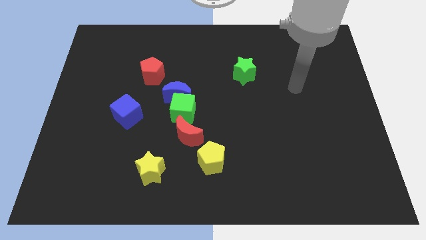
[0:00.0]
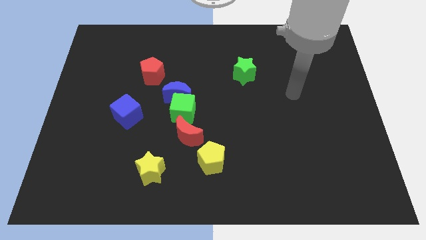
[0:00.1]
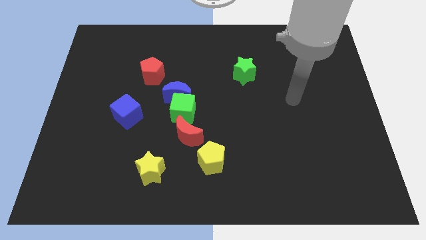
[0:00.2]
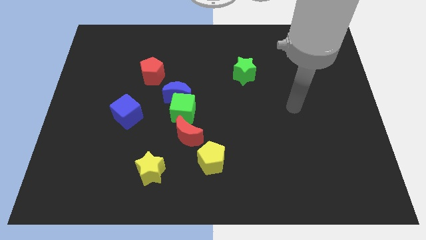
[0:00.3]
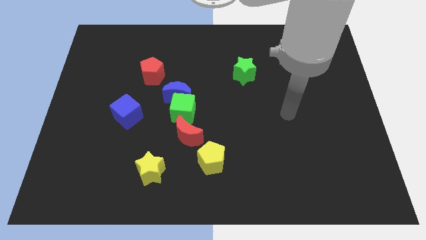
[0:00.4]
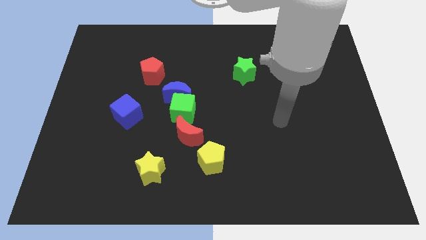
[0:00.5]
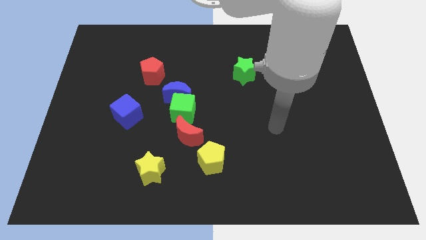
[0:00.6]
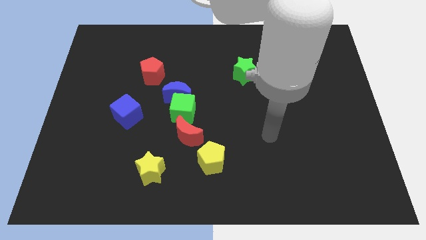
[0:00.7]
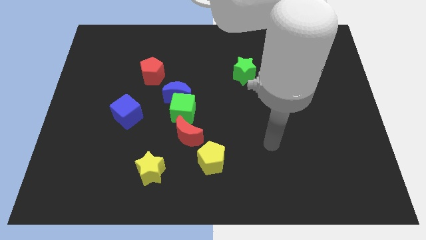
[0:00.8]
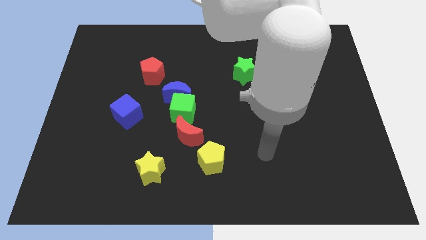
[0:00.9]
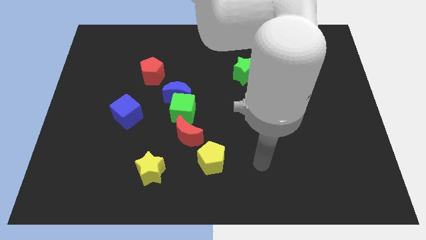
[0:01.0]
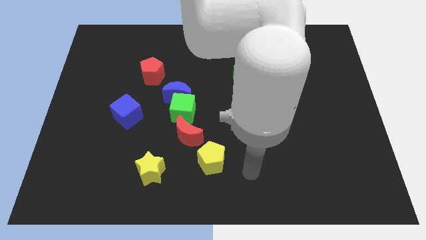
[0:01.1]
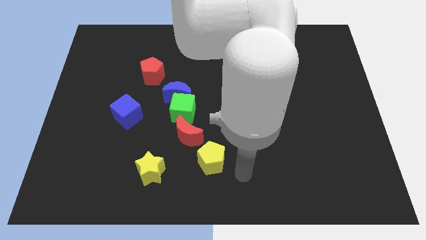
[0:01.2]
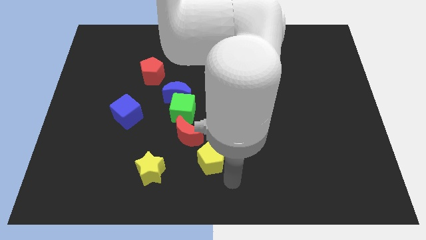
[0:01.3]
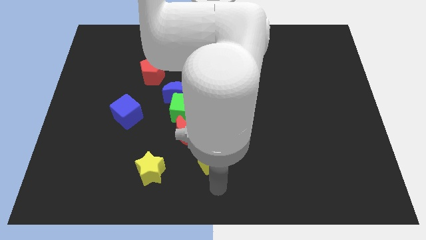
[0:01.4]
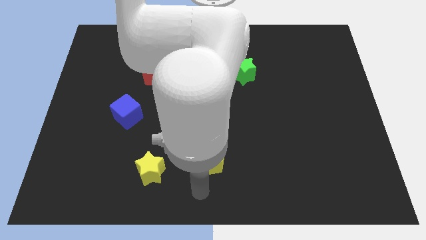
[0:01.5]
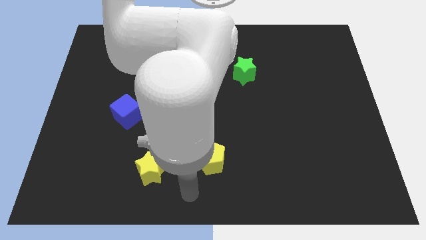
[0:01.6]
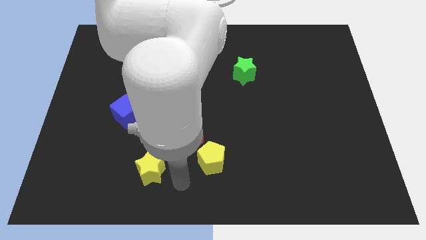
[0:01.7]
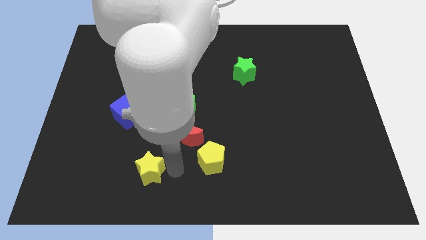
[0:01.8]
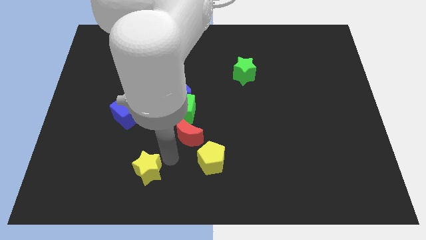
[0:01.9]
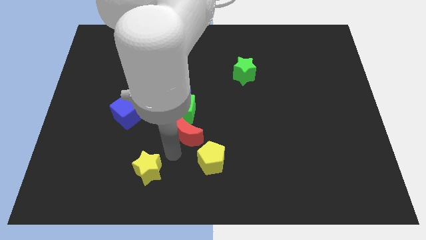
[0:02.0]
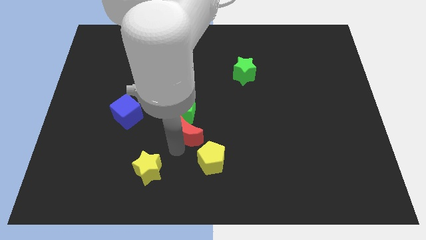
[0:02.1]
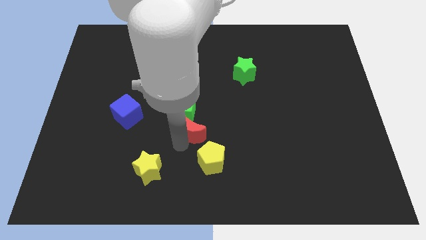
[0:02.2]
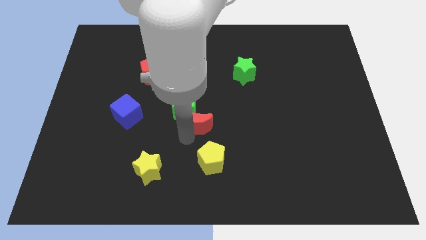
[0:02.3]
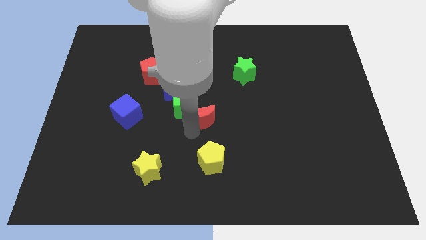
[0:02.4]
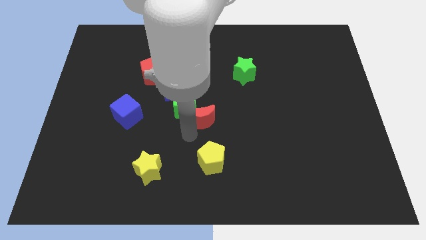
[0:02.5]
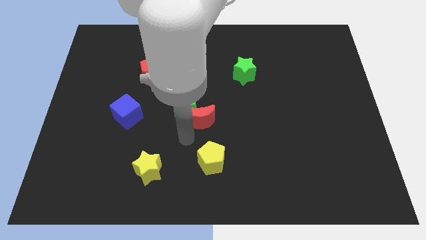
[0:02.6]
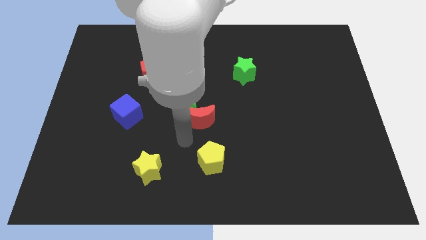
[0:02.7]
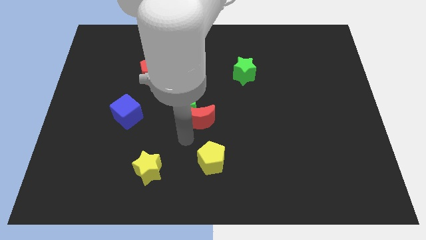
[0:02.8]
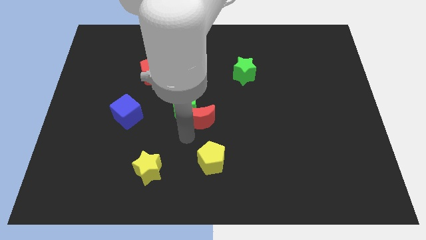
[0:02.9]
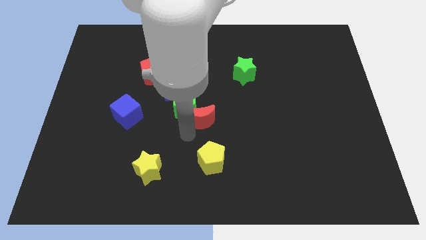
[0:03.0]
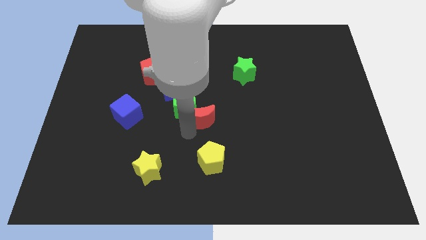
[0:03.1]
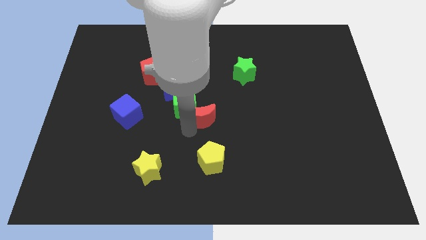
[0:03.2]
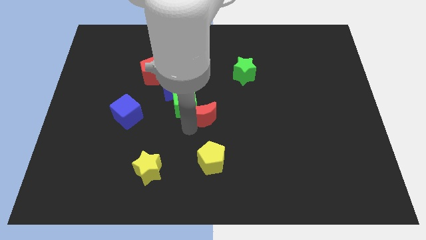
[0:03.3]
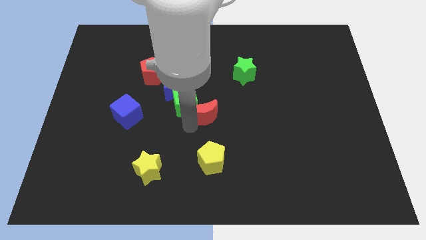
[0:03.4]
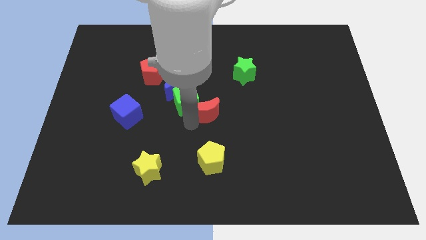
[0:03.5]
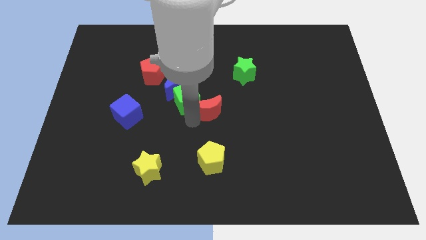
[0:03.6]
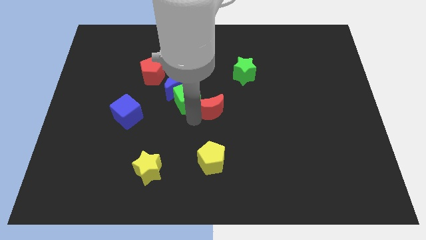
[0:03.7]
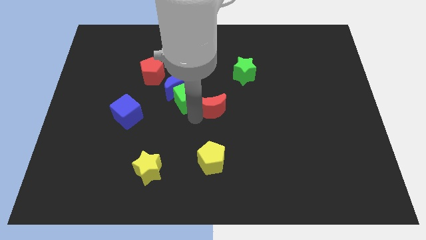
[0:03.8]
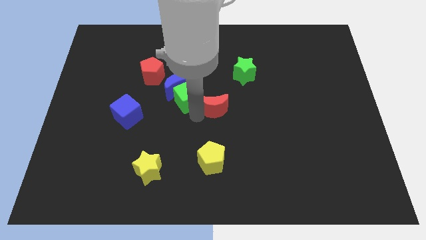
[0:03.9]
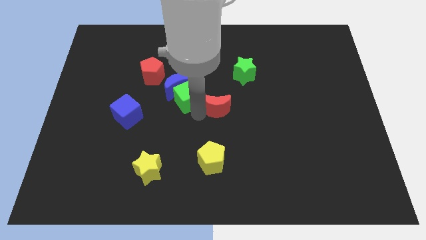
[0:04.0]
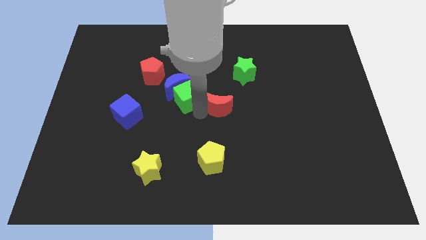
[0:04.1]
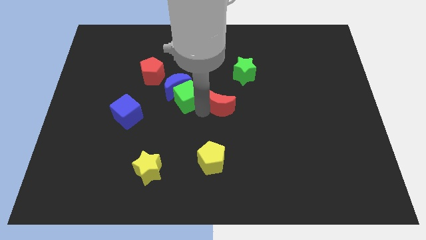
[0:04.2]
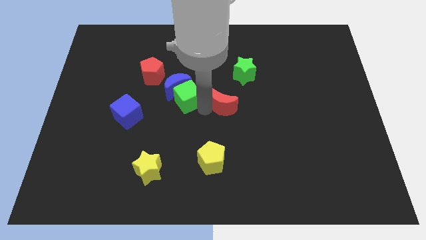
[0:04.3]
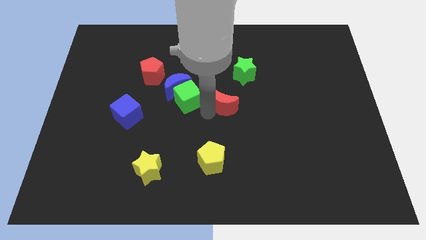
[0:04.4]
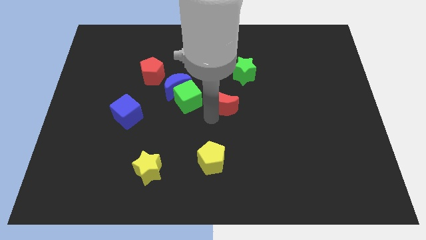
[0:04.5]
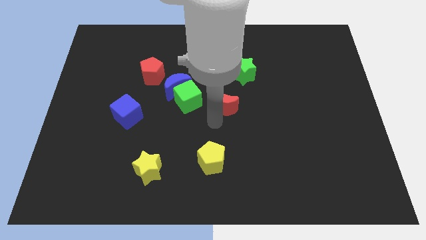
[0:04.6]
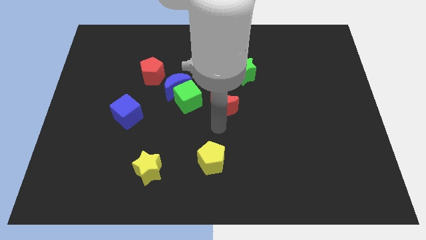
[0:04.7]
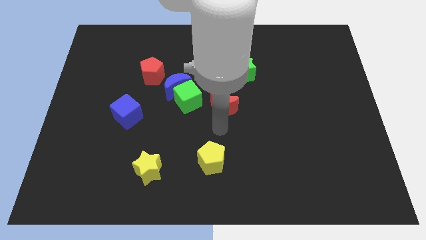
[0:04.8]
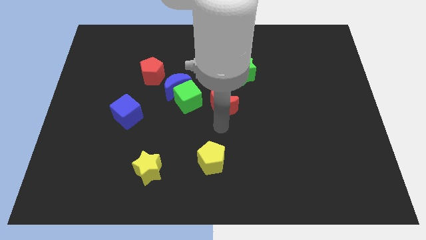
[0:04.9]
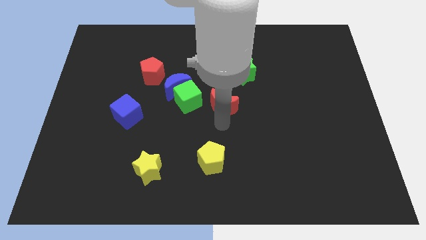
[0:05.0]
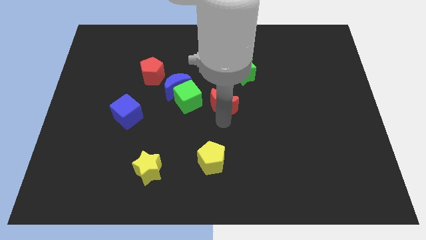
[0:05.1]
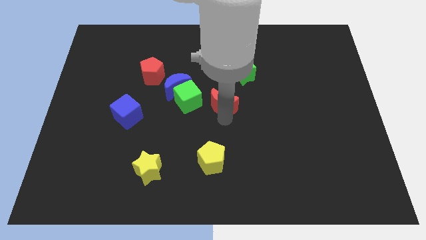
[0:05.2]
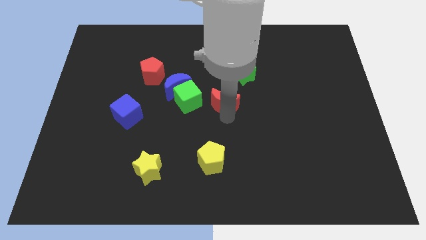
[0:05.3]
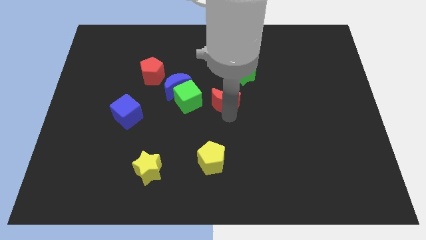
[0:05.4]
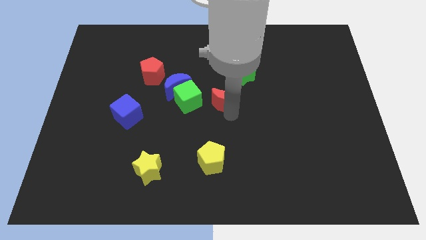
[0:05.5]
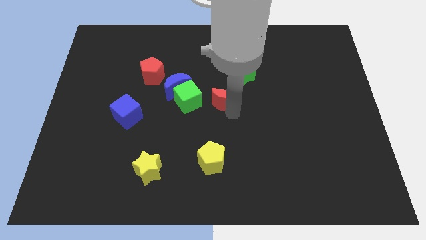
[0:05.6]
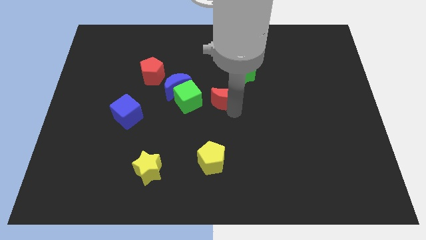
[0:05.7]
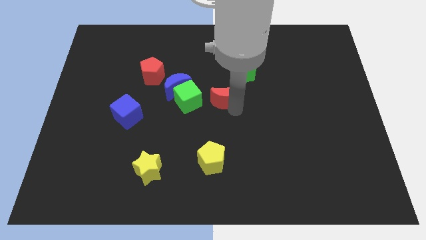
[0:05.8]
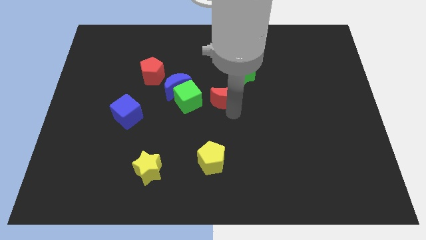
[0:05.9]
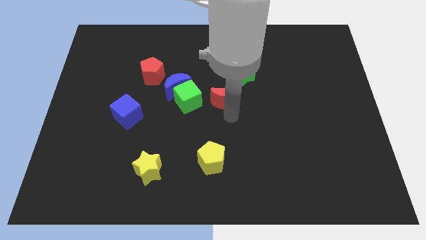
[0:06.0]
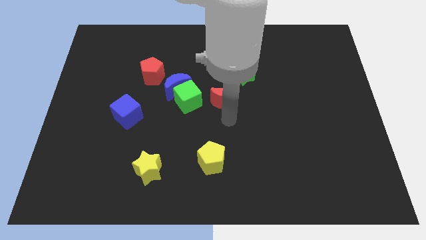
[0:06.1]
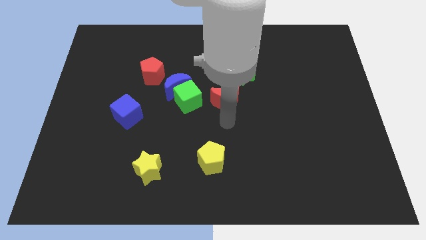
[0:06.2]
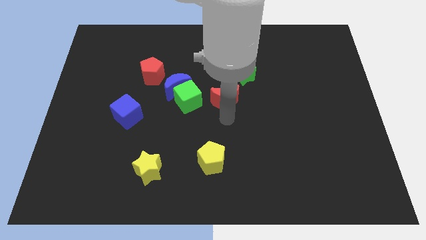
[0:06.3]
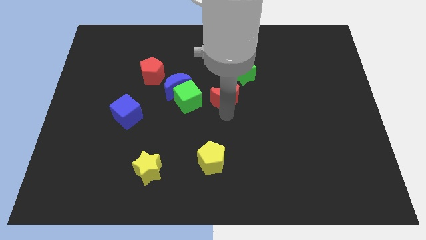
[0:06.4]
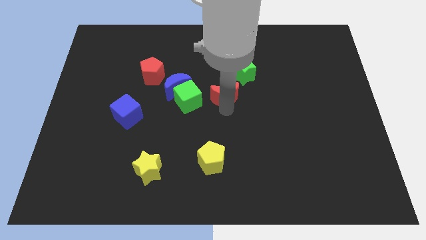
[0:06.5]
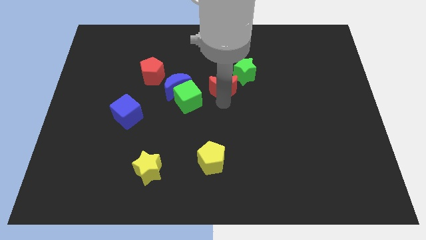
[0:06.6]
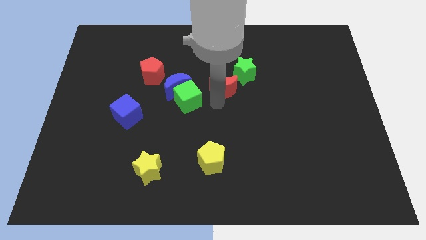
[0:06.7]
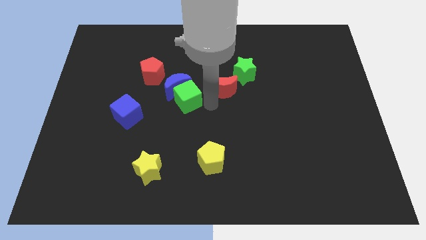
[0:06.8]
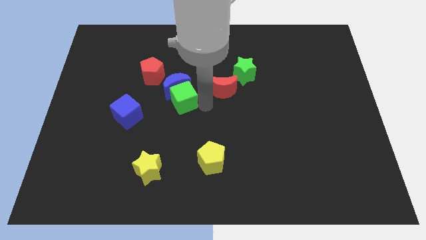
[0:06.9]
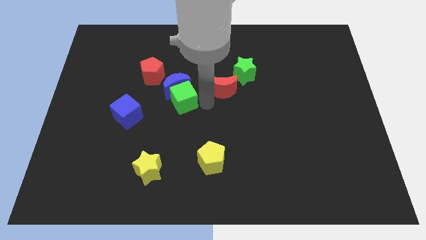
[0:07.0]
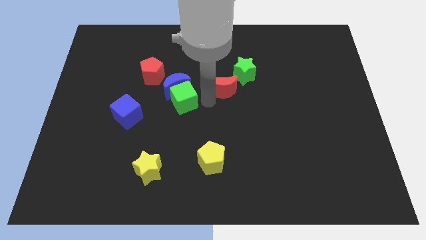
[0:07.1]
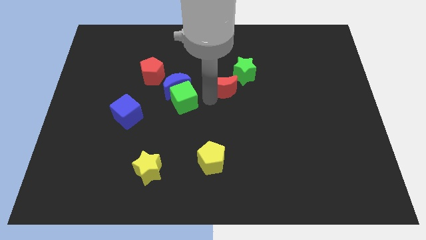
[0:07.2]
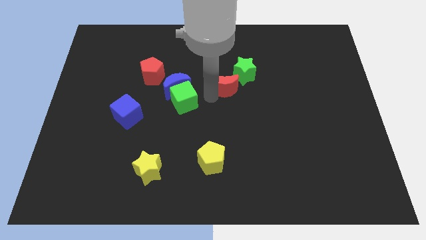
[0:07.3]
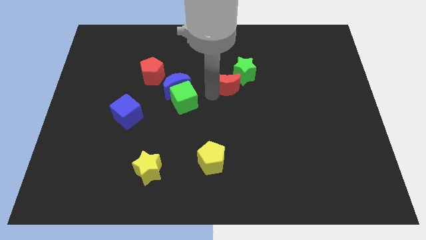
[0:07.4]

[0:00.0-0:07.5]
put the red moon to the green star

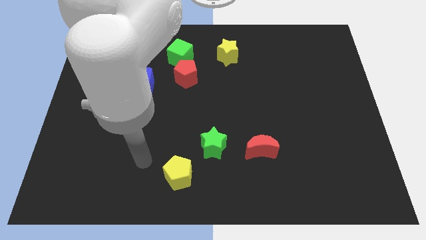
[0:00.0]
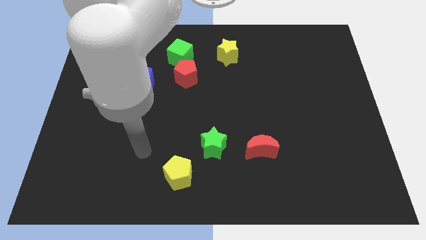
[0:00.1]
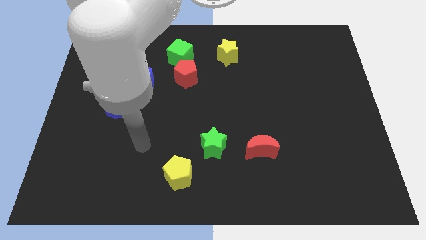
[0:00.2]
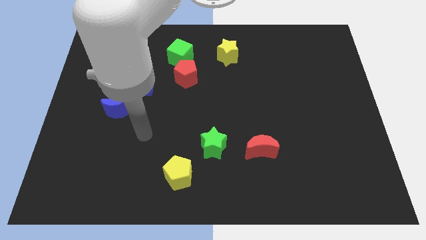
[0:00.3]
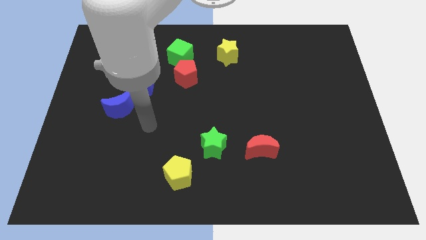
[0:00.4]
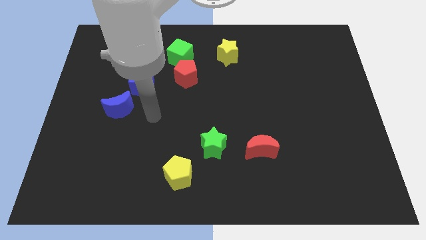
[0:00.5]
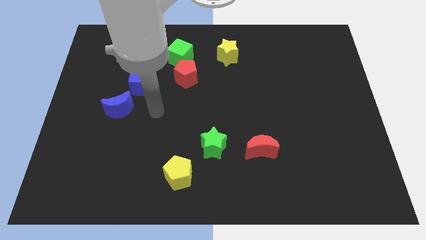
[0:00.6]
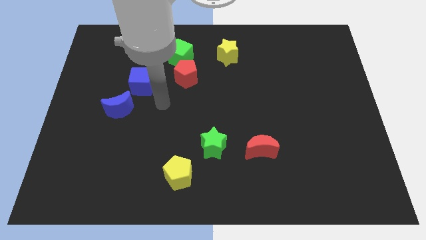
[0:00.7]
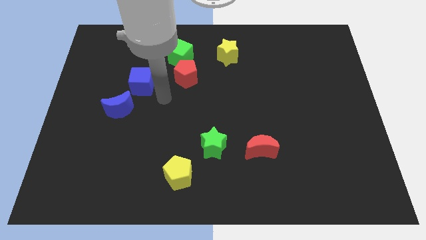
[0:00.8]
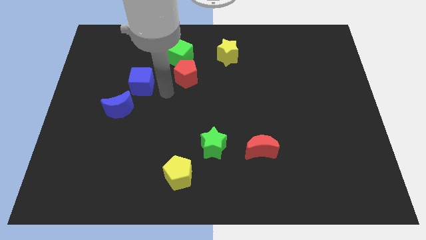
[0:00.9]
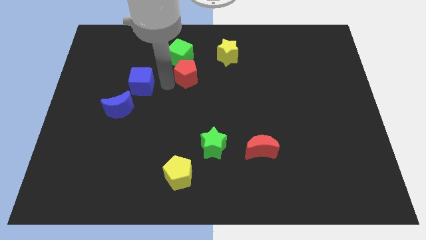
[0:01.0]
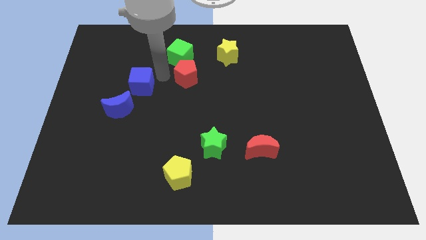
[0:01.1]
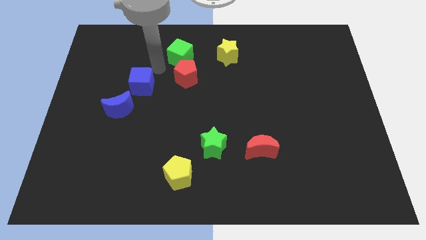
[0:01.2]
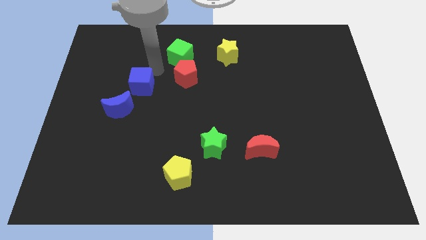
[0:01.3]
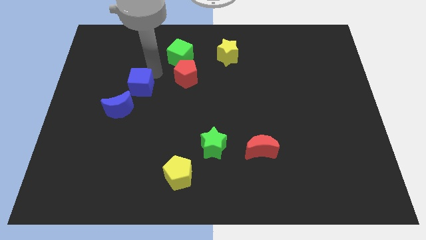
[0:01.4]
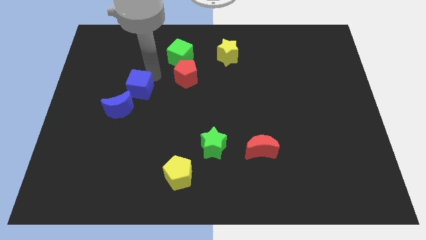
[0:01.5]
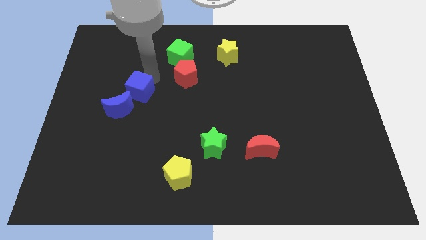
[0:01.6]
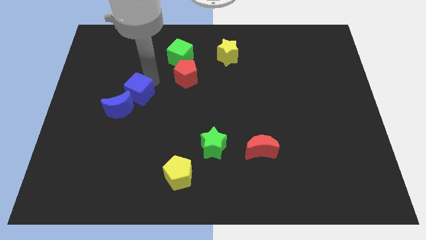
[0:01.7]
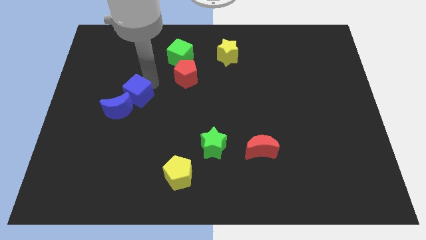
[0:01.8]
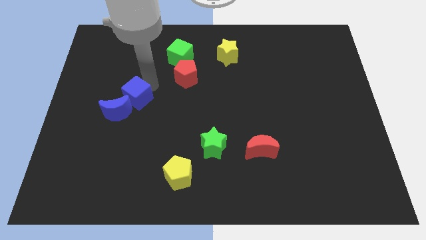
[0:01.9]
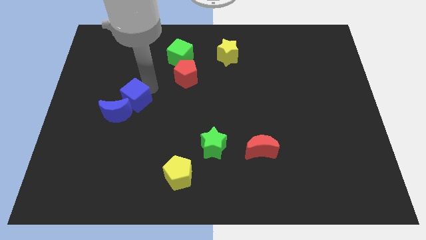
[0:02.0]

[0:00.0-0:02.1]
move the blue cube next to the blue moon
